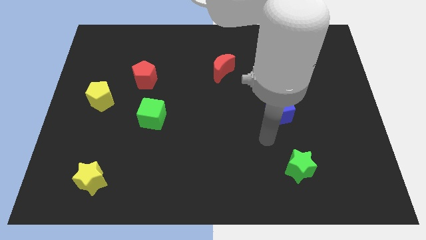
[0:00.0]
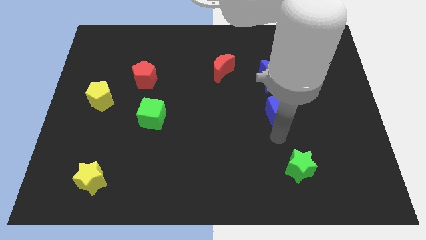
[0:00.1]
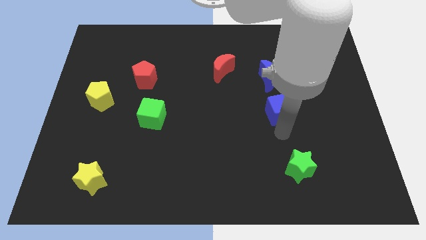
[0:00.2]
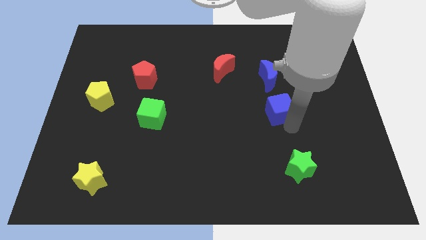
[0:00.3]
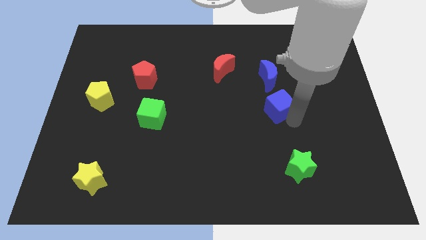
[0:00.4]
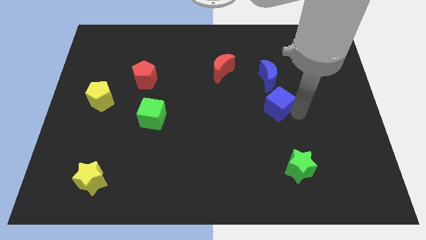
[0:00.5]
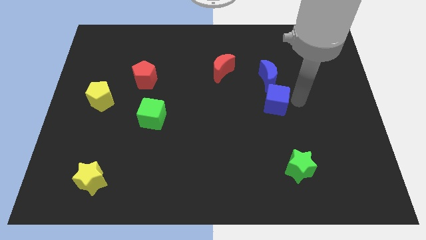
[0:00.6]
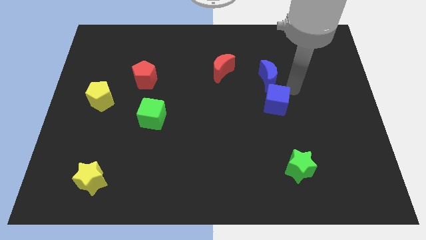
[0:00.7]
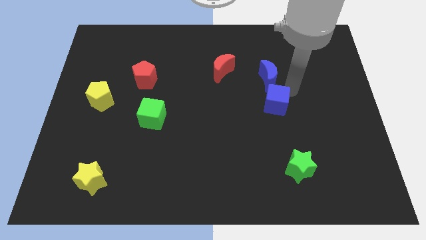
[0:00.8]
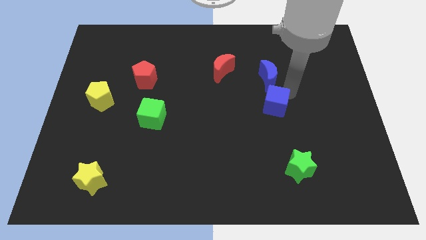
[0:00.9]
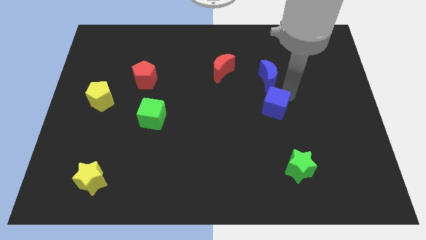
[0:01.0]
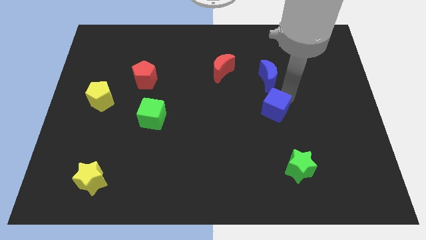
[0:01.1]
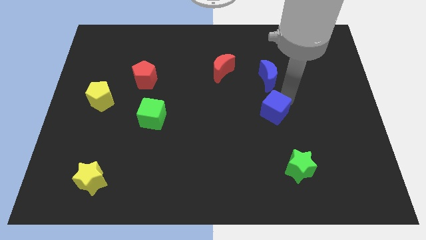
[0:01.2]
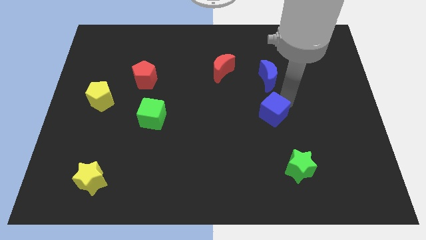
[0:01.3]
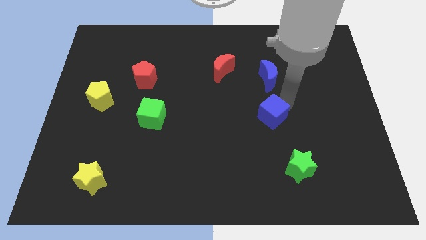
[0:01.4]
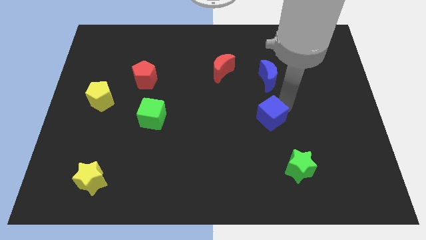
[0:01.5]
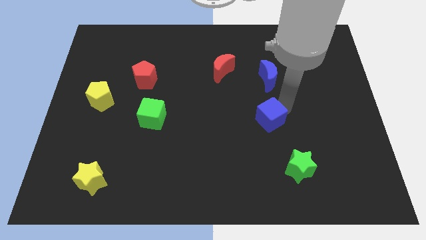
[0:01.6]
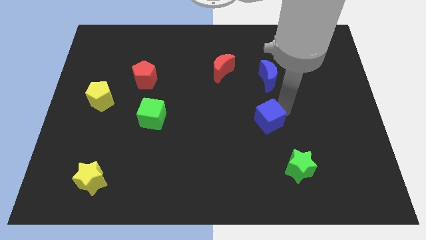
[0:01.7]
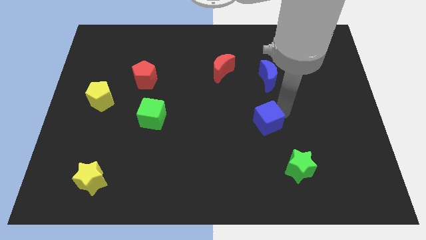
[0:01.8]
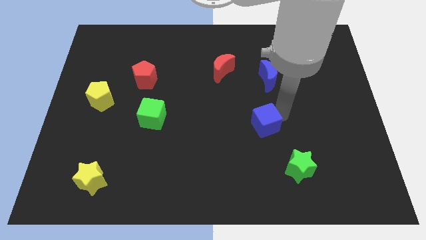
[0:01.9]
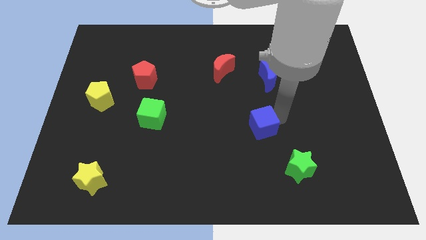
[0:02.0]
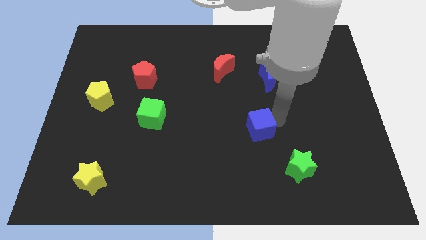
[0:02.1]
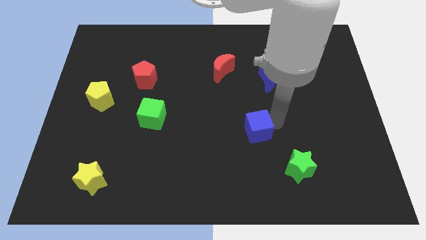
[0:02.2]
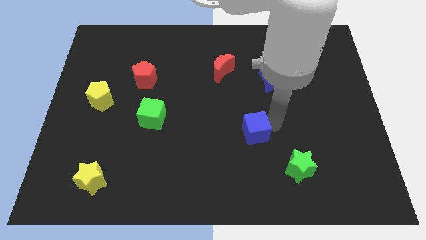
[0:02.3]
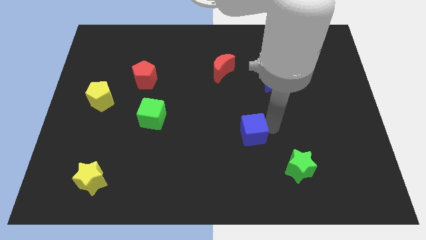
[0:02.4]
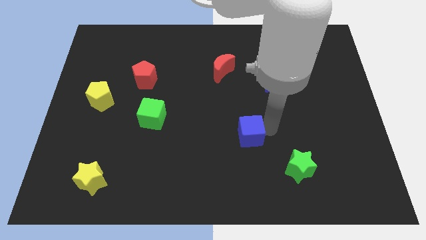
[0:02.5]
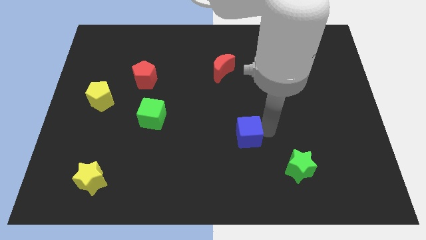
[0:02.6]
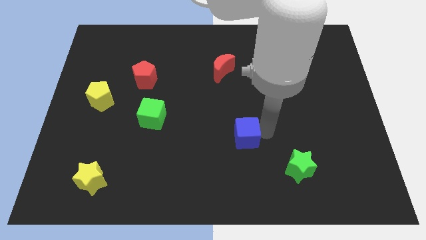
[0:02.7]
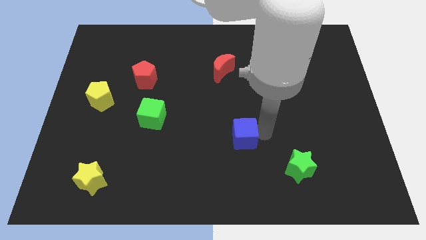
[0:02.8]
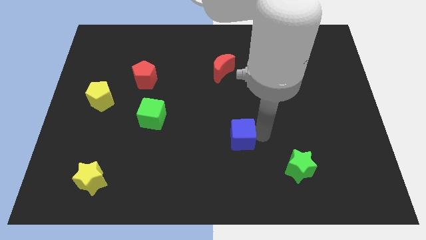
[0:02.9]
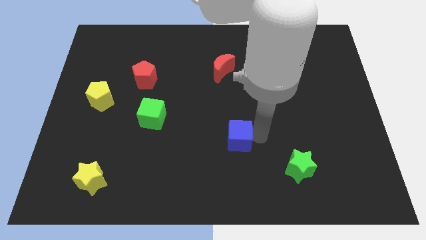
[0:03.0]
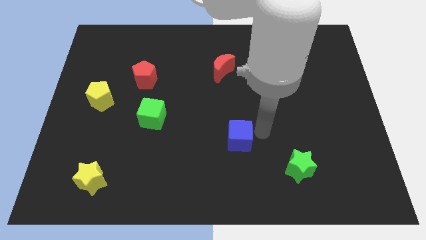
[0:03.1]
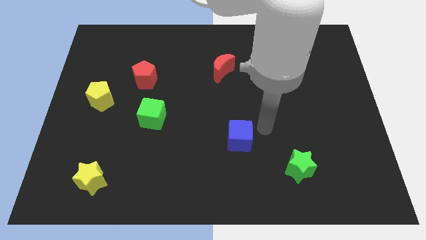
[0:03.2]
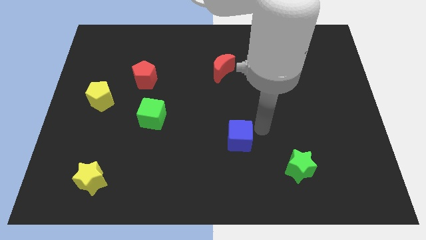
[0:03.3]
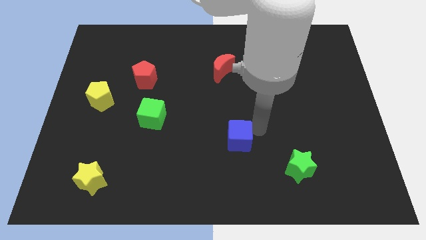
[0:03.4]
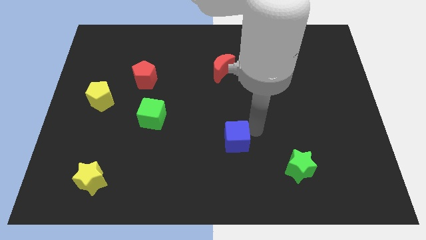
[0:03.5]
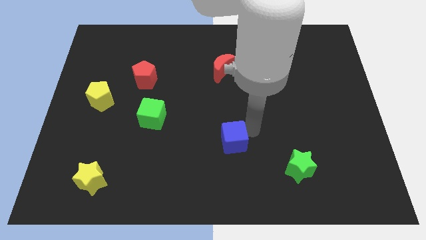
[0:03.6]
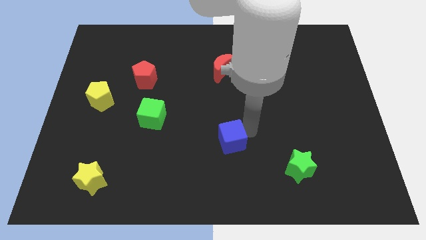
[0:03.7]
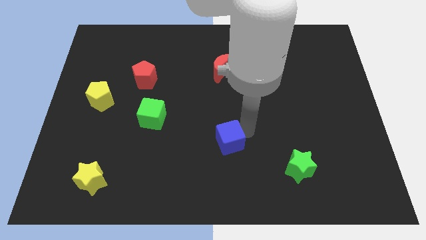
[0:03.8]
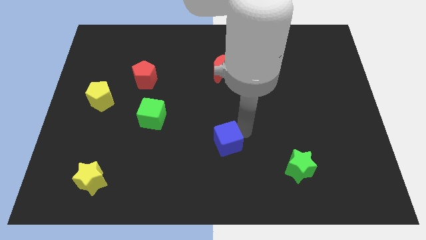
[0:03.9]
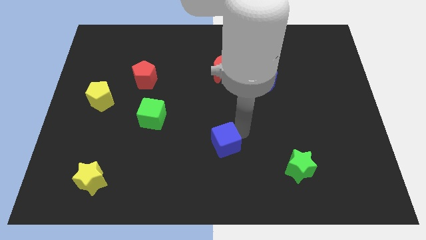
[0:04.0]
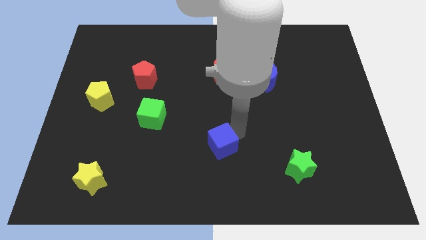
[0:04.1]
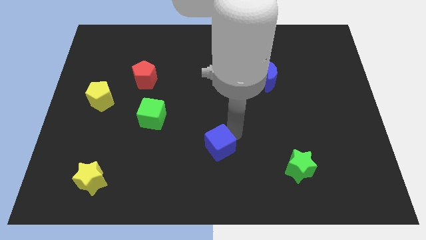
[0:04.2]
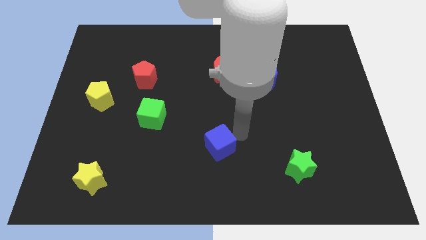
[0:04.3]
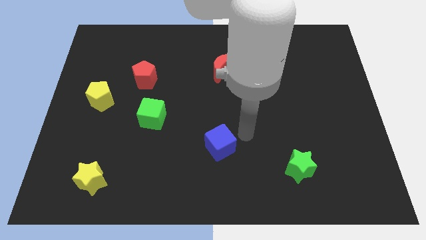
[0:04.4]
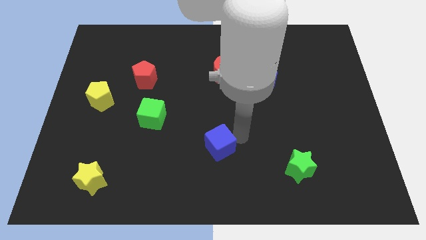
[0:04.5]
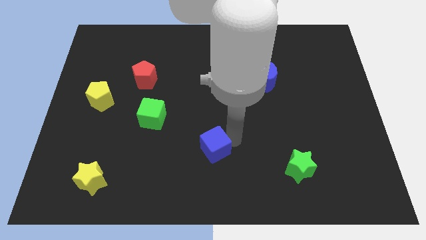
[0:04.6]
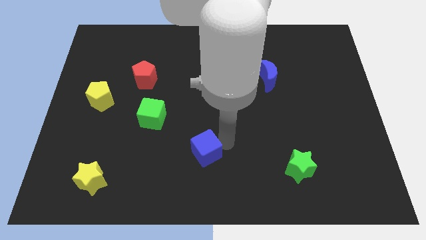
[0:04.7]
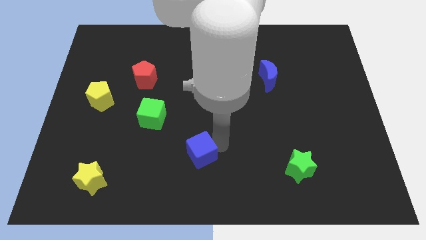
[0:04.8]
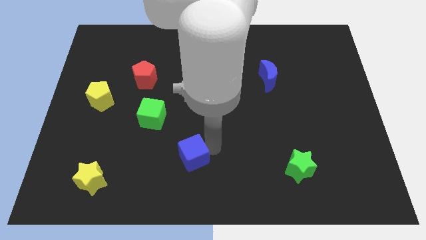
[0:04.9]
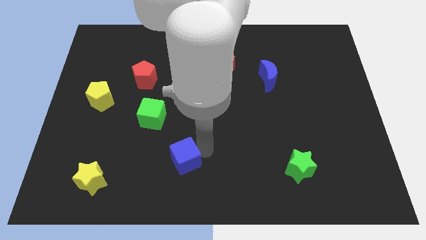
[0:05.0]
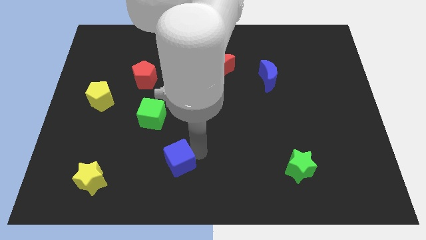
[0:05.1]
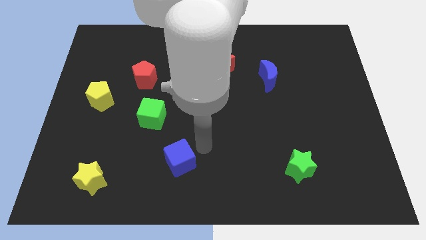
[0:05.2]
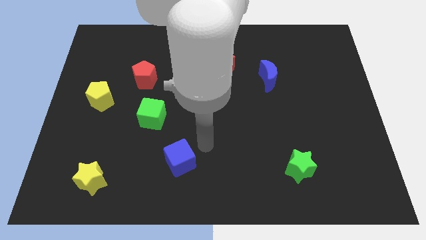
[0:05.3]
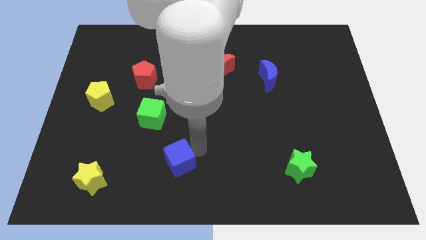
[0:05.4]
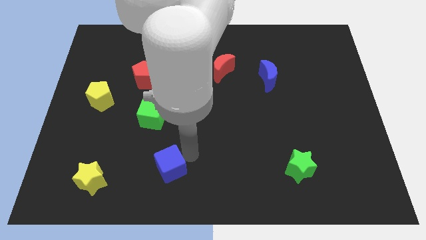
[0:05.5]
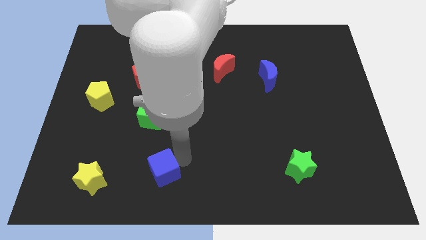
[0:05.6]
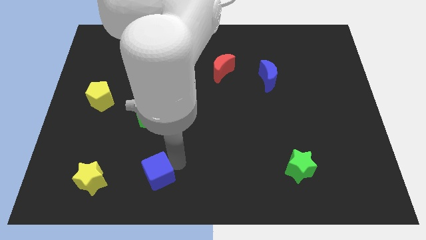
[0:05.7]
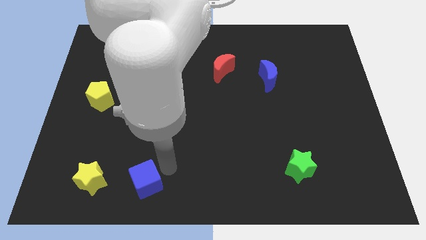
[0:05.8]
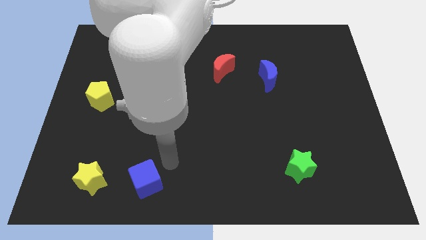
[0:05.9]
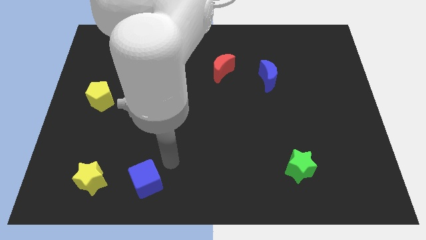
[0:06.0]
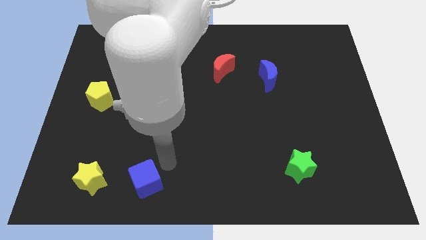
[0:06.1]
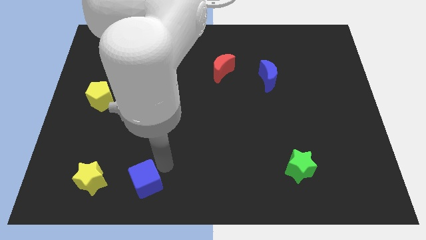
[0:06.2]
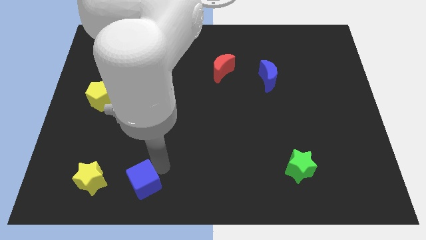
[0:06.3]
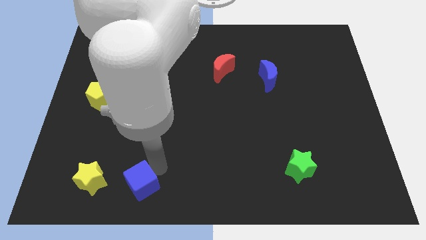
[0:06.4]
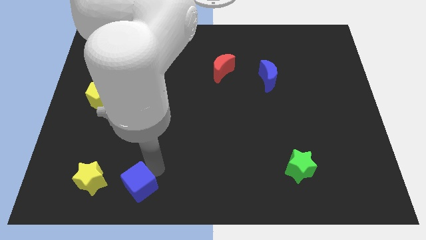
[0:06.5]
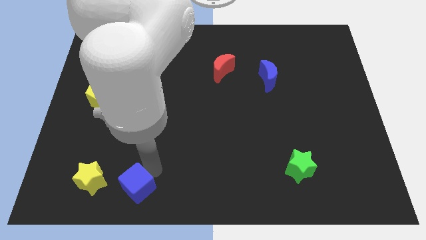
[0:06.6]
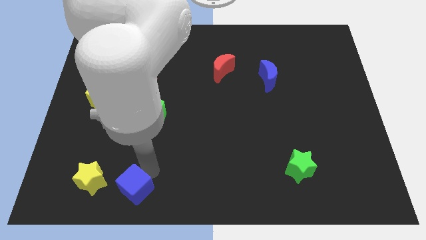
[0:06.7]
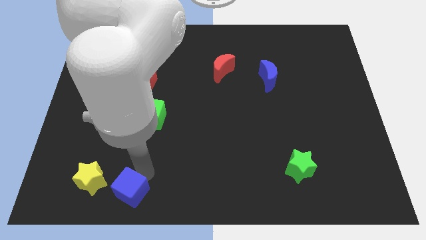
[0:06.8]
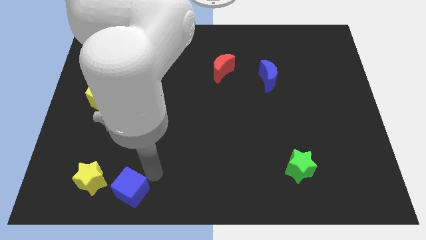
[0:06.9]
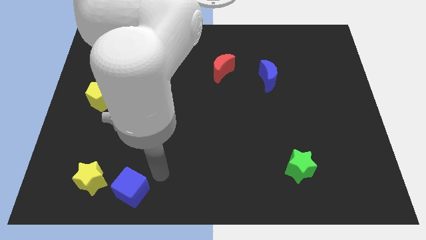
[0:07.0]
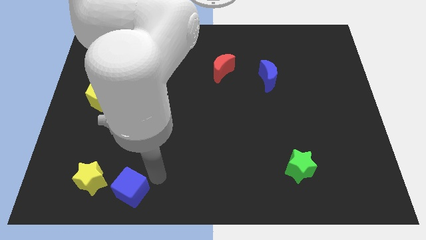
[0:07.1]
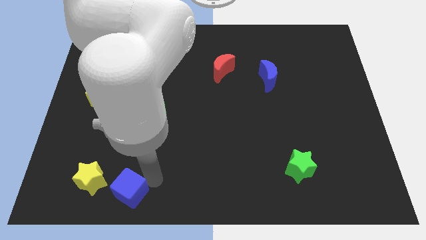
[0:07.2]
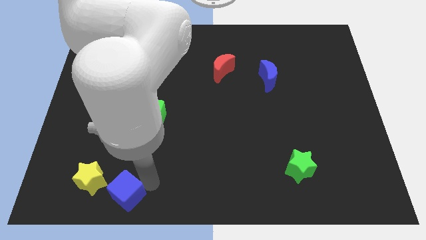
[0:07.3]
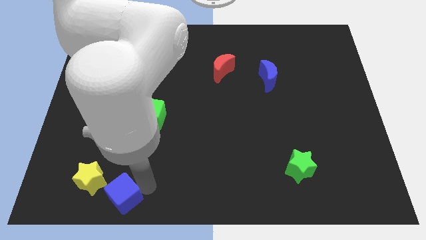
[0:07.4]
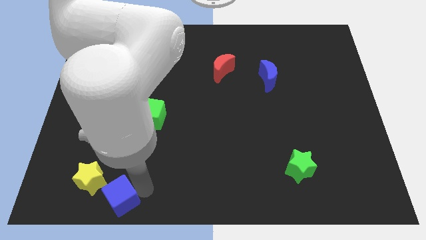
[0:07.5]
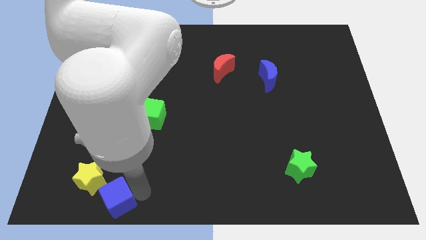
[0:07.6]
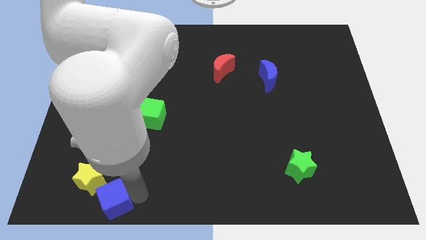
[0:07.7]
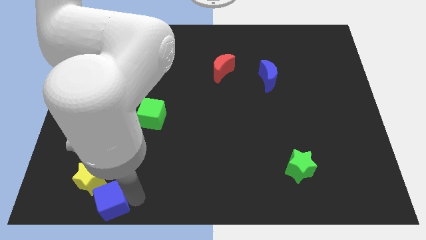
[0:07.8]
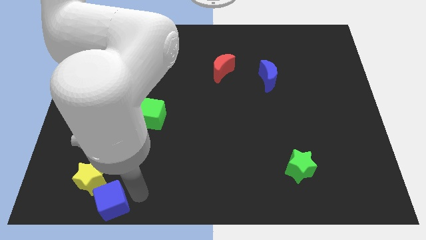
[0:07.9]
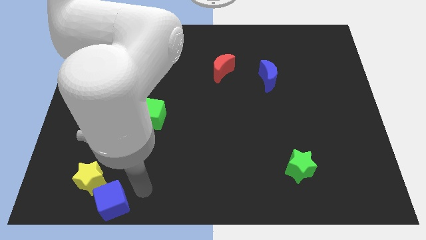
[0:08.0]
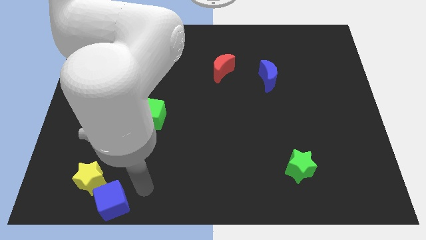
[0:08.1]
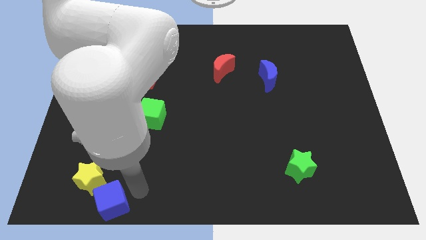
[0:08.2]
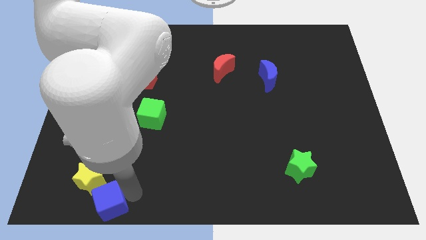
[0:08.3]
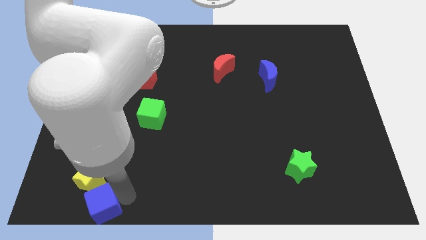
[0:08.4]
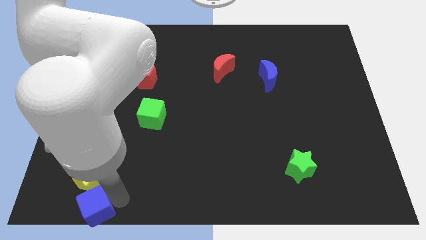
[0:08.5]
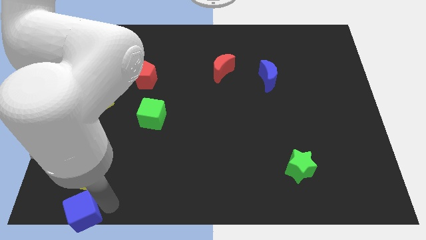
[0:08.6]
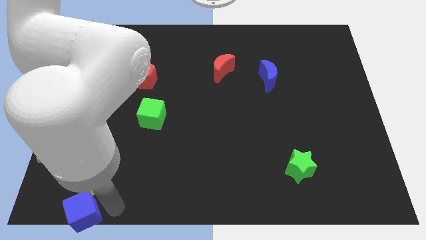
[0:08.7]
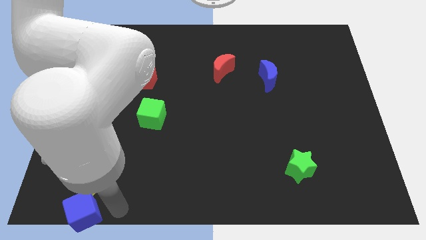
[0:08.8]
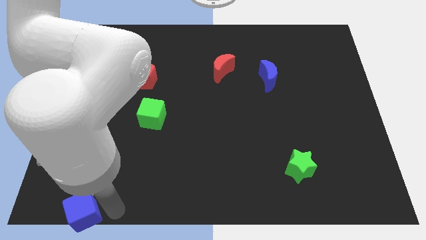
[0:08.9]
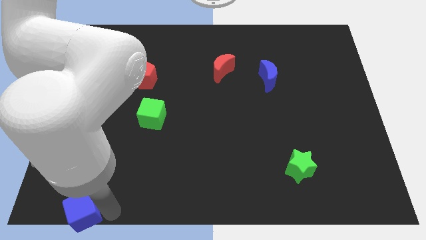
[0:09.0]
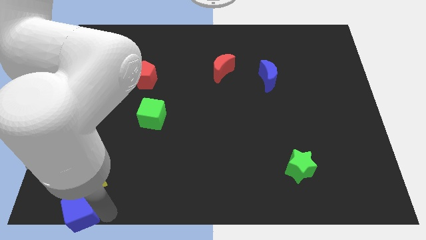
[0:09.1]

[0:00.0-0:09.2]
move the blue cube to the bottom left
